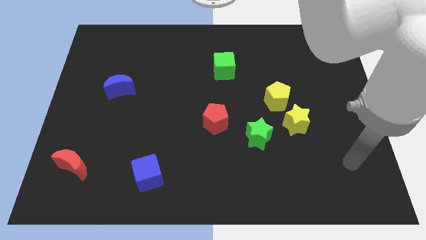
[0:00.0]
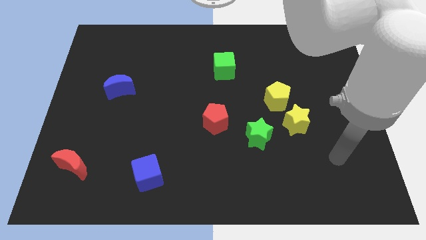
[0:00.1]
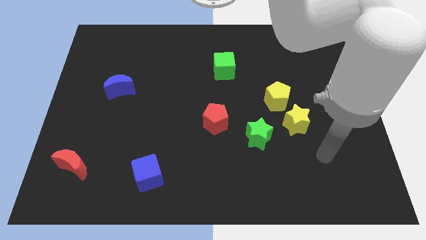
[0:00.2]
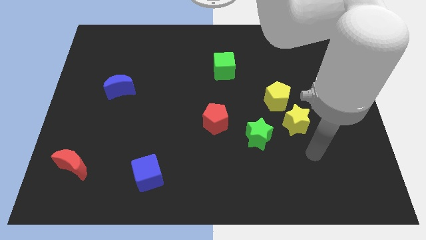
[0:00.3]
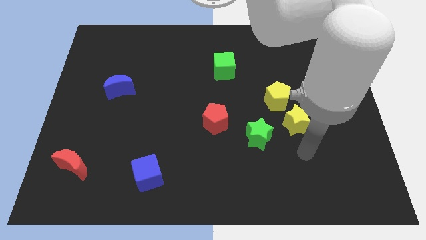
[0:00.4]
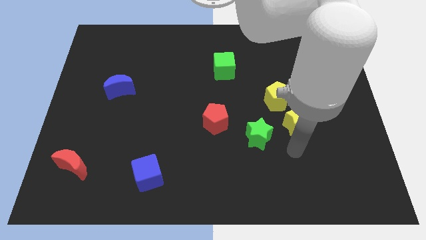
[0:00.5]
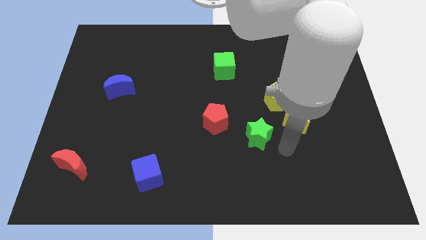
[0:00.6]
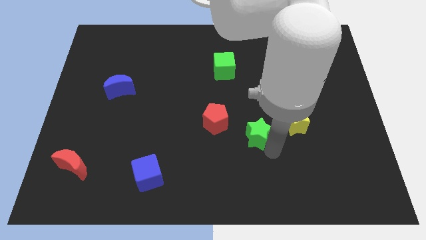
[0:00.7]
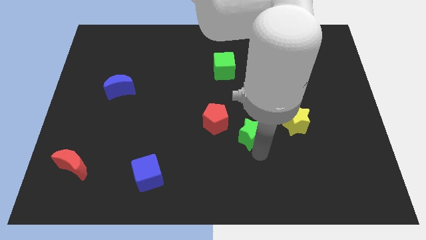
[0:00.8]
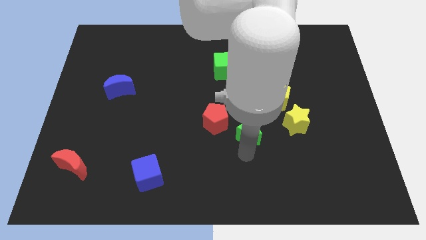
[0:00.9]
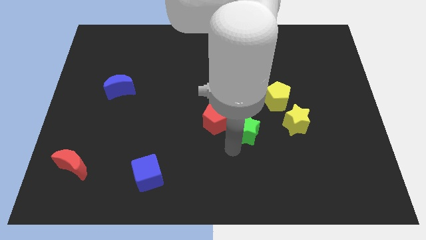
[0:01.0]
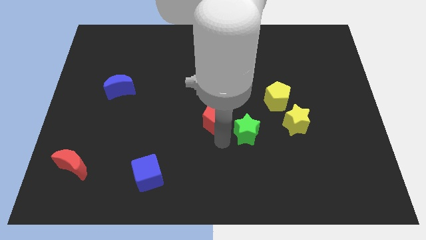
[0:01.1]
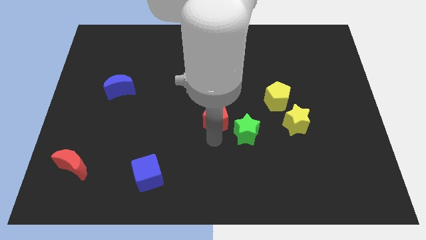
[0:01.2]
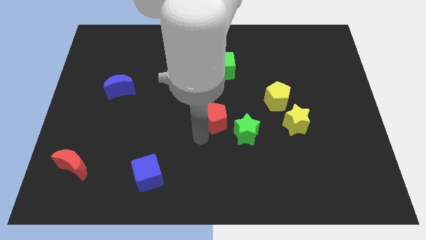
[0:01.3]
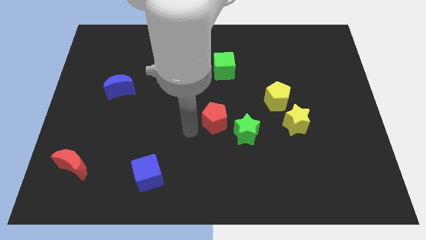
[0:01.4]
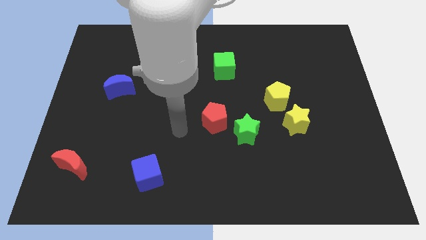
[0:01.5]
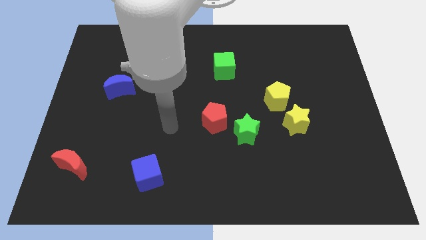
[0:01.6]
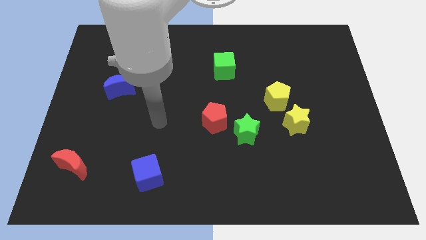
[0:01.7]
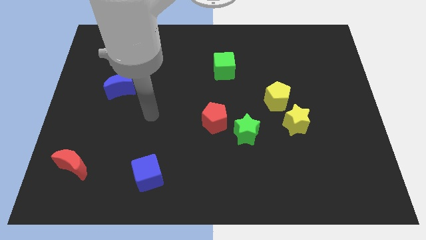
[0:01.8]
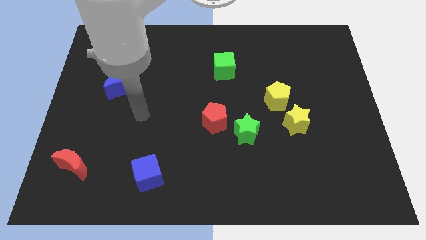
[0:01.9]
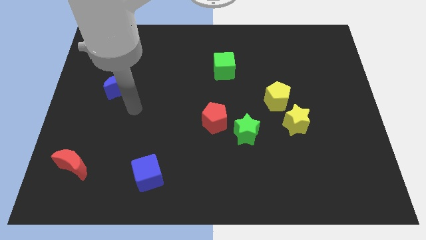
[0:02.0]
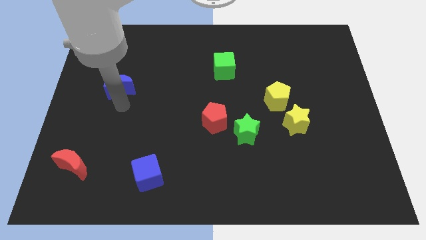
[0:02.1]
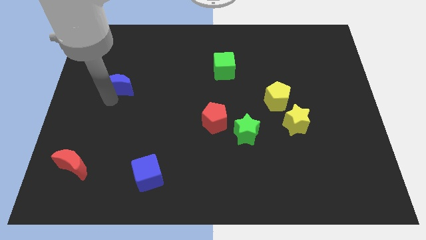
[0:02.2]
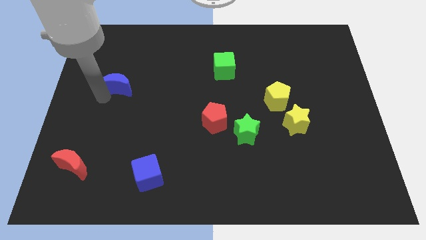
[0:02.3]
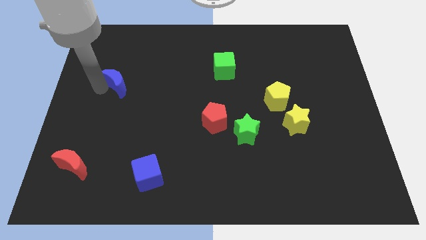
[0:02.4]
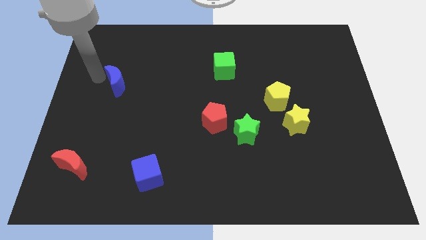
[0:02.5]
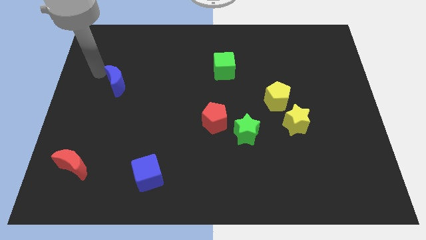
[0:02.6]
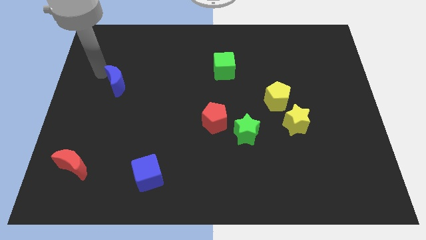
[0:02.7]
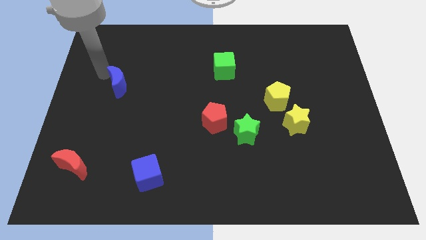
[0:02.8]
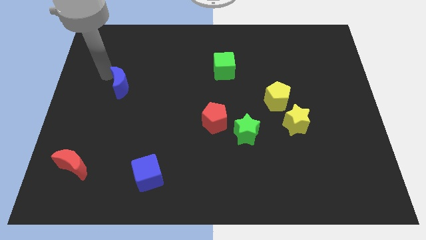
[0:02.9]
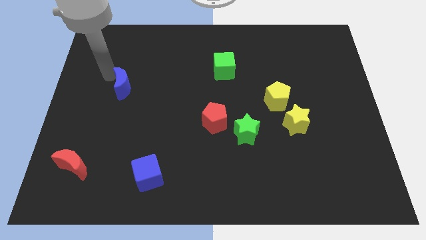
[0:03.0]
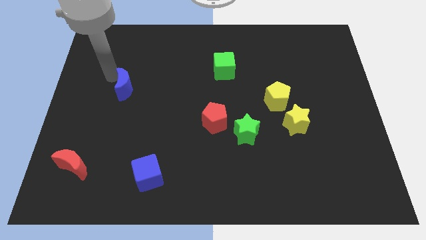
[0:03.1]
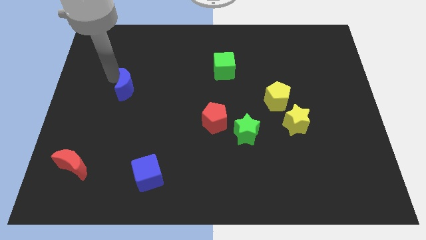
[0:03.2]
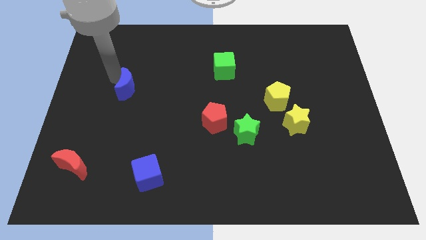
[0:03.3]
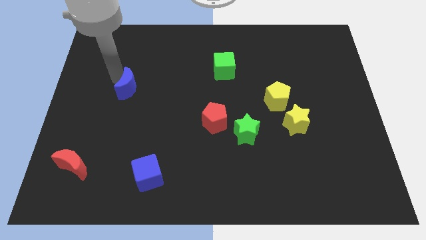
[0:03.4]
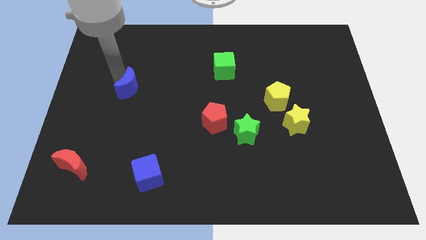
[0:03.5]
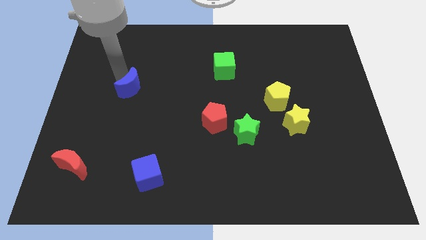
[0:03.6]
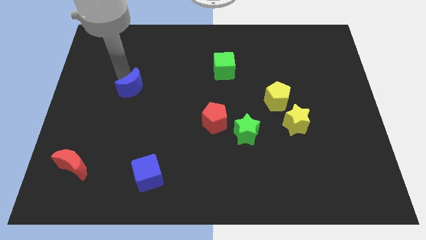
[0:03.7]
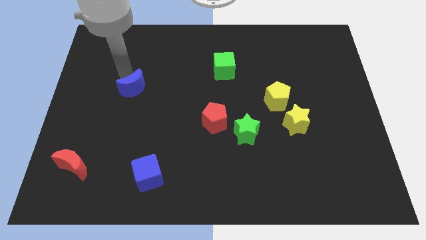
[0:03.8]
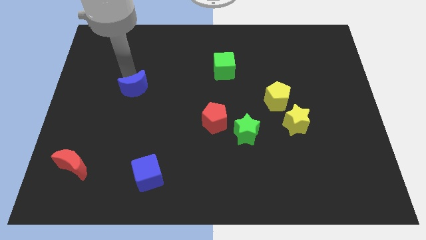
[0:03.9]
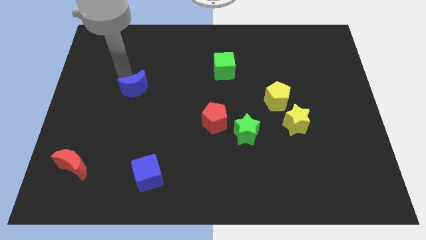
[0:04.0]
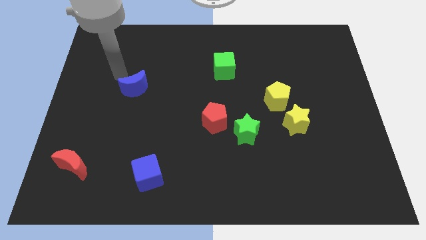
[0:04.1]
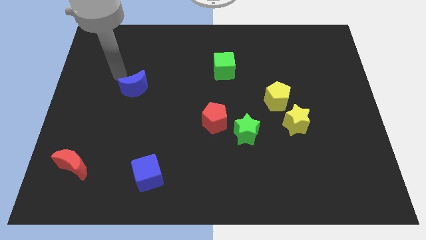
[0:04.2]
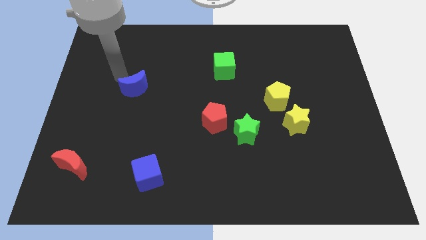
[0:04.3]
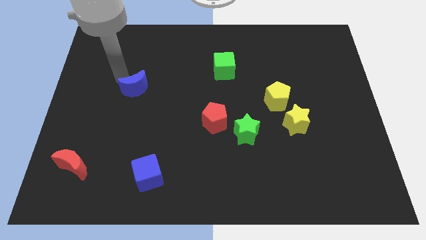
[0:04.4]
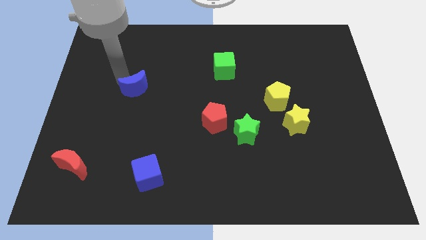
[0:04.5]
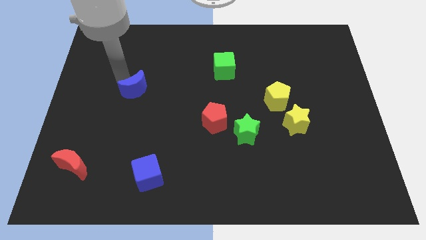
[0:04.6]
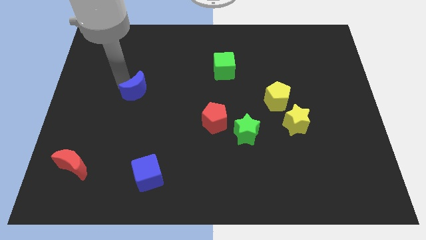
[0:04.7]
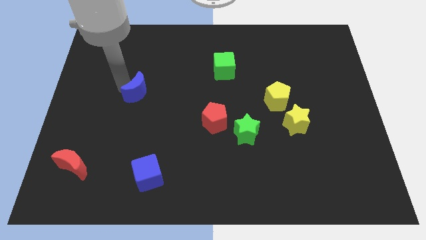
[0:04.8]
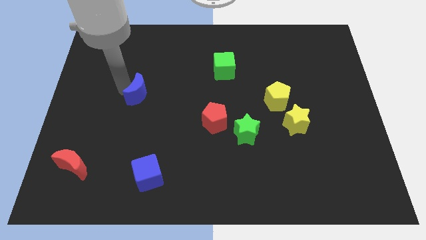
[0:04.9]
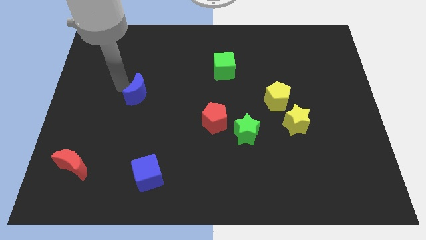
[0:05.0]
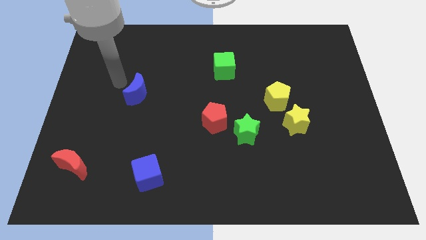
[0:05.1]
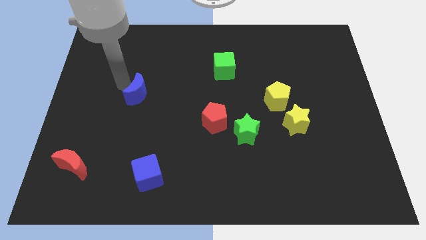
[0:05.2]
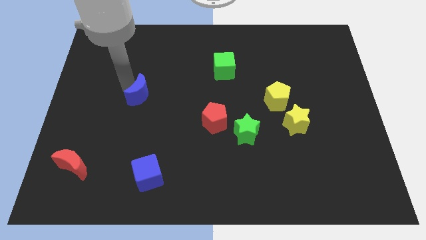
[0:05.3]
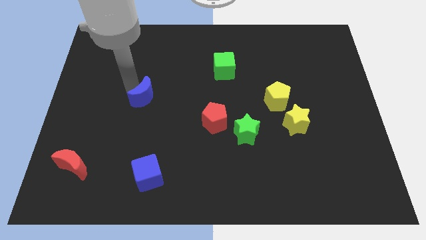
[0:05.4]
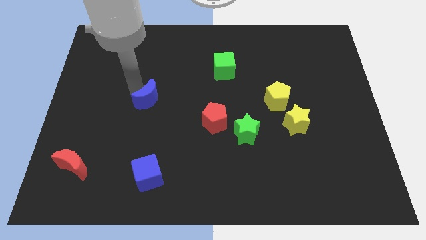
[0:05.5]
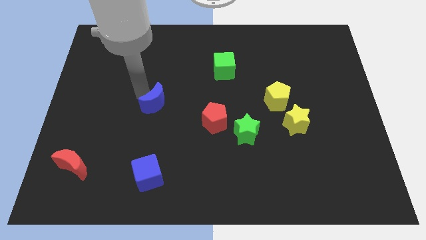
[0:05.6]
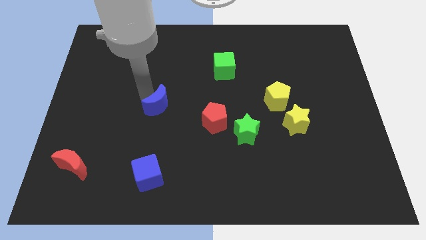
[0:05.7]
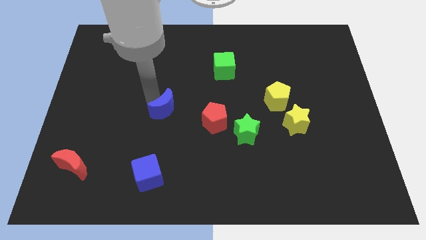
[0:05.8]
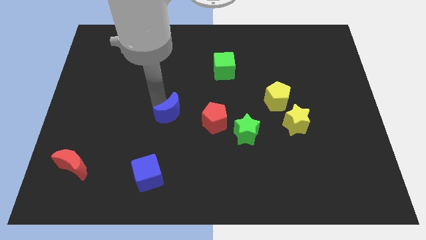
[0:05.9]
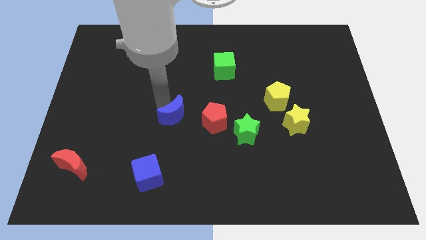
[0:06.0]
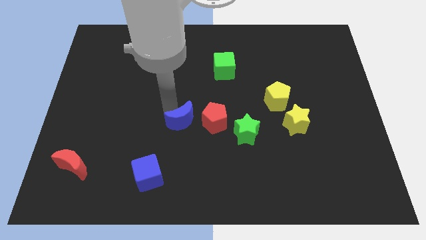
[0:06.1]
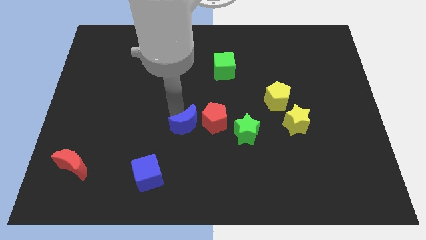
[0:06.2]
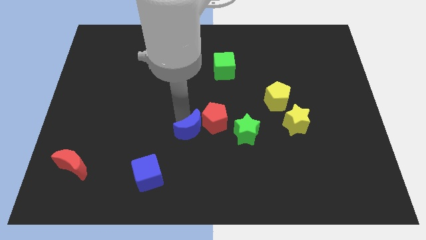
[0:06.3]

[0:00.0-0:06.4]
move the blue moon down and then right

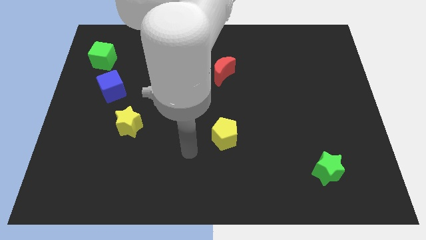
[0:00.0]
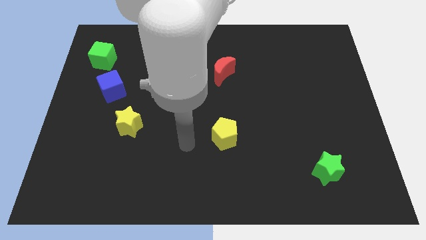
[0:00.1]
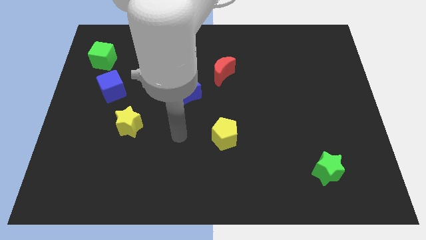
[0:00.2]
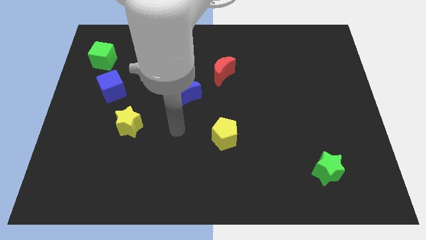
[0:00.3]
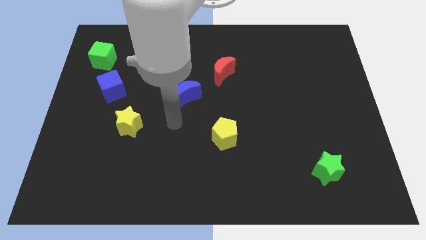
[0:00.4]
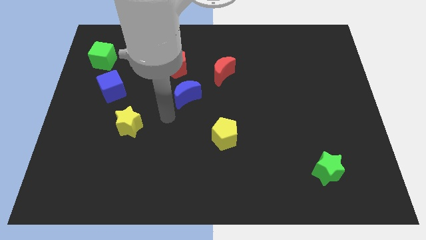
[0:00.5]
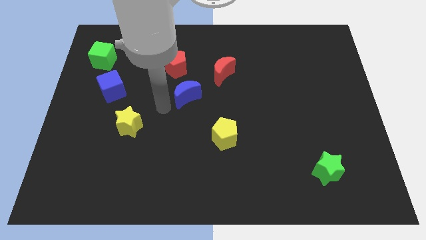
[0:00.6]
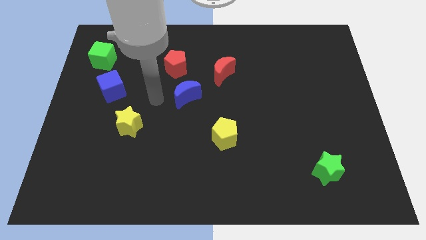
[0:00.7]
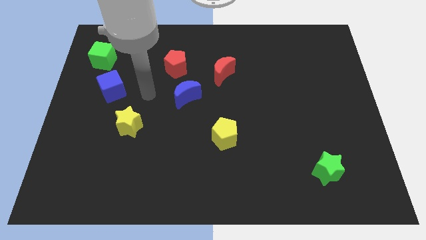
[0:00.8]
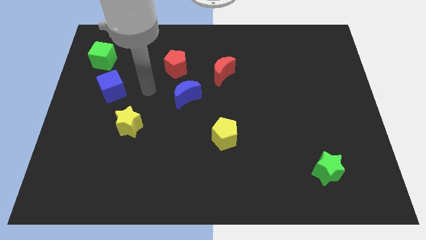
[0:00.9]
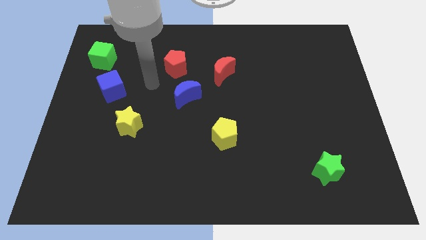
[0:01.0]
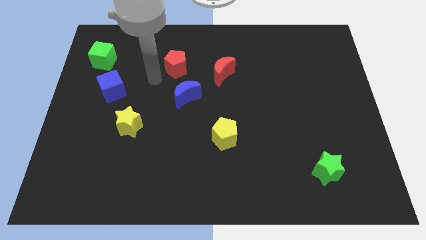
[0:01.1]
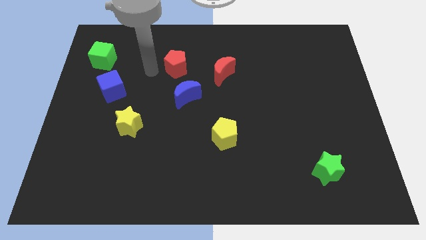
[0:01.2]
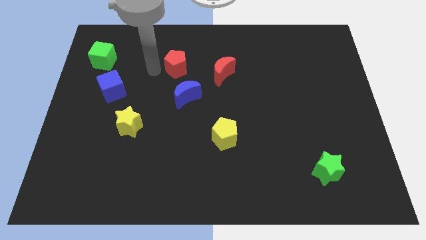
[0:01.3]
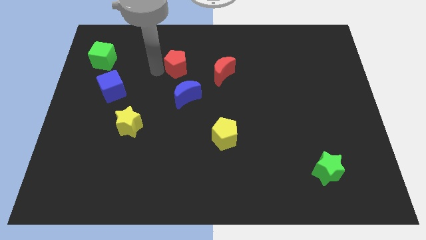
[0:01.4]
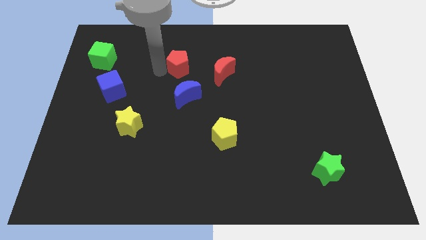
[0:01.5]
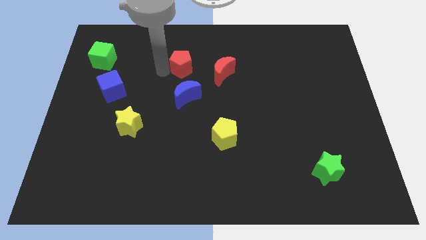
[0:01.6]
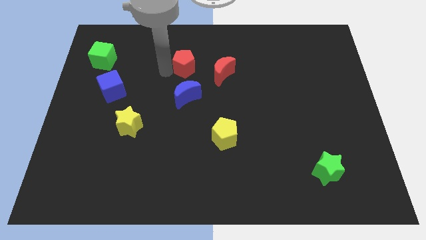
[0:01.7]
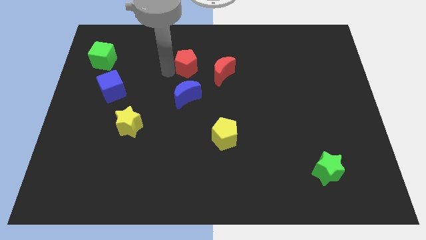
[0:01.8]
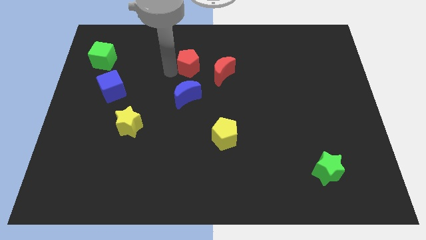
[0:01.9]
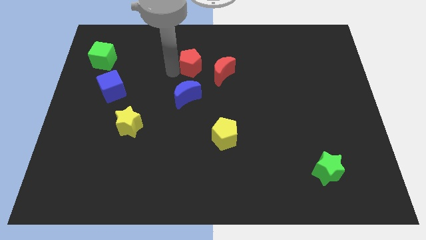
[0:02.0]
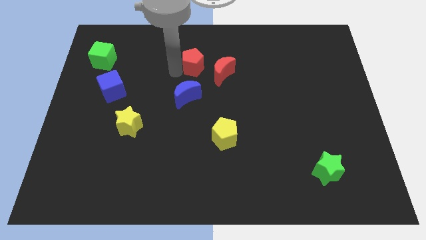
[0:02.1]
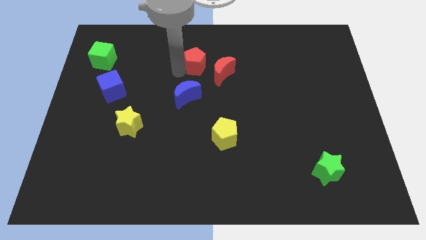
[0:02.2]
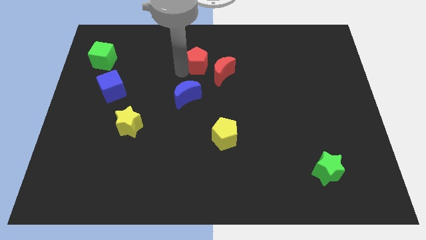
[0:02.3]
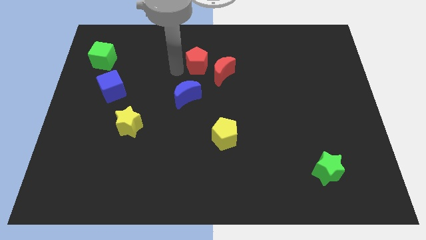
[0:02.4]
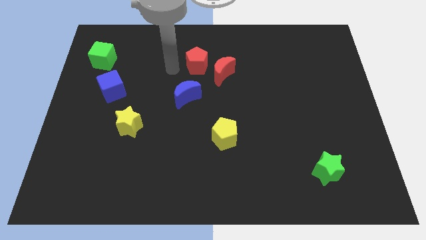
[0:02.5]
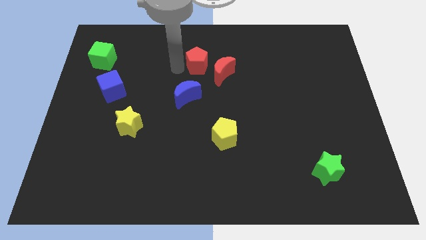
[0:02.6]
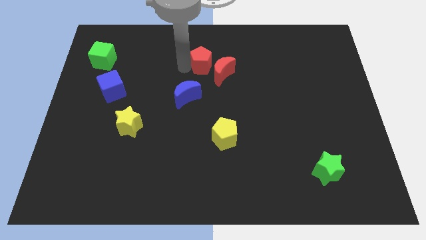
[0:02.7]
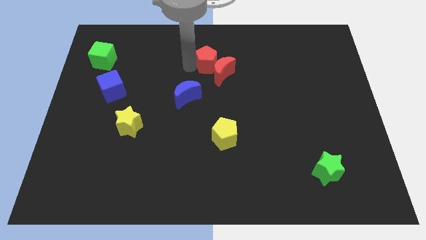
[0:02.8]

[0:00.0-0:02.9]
push the red pentagon a bit to the right
